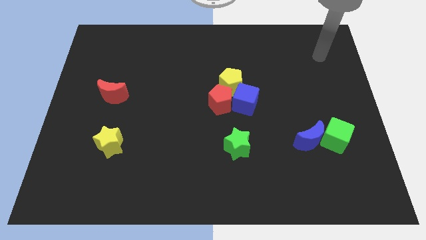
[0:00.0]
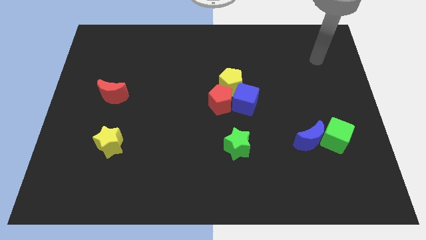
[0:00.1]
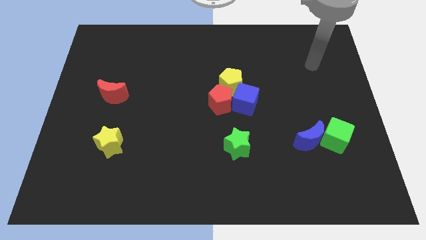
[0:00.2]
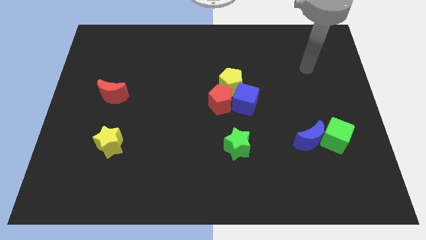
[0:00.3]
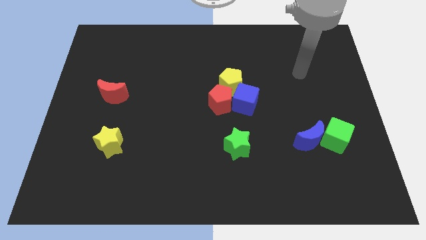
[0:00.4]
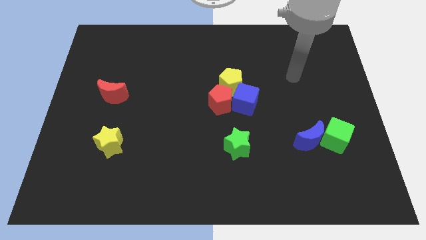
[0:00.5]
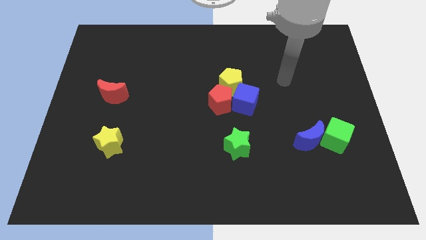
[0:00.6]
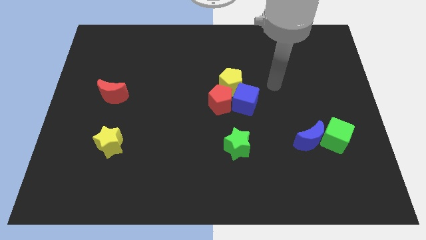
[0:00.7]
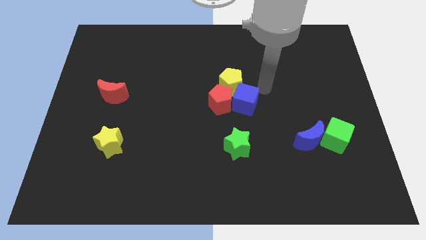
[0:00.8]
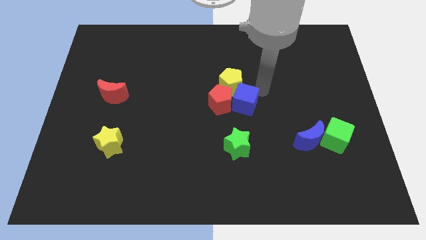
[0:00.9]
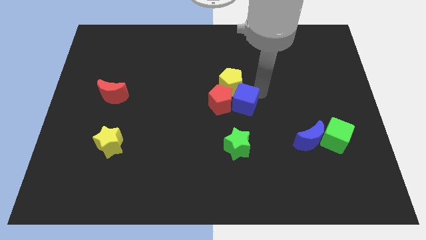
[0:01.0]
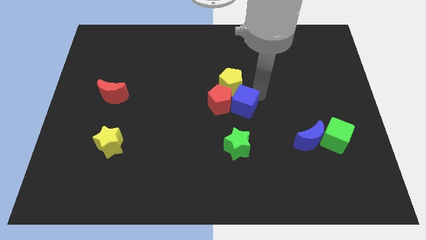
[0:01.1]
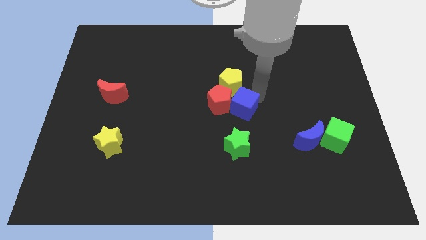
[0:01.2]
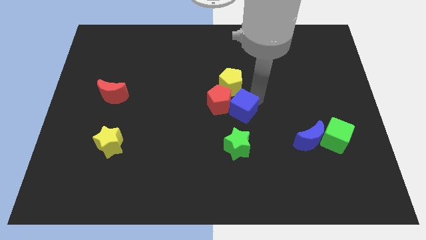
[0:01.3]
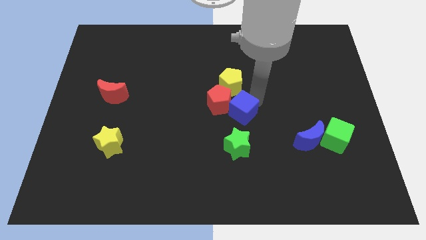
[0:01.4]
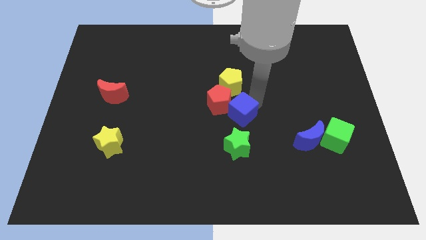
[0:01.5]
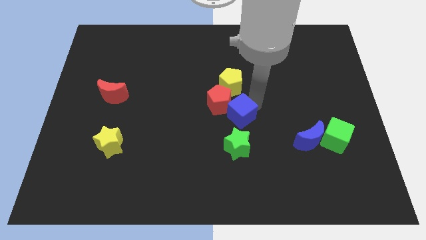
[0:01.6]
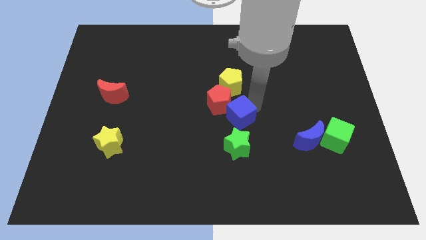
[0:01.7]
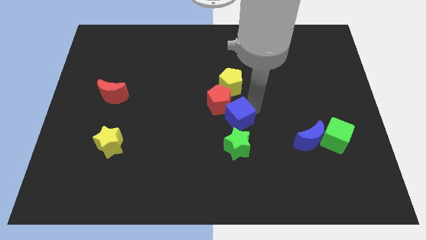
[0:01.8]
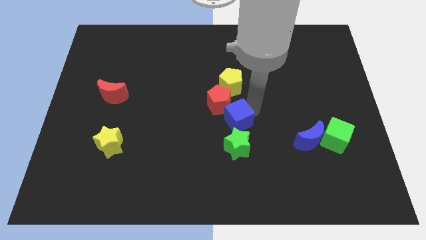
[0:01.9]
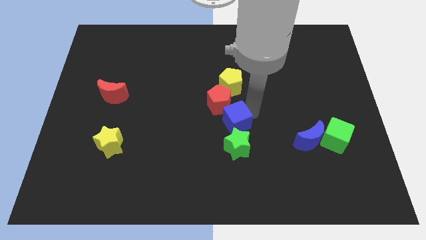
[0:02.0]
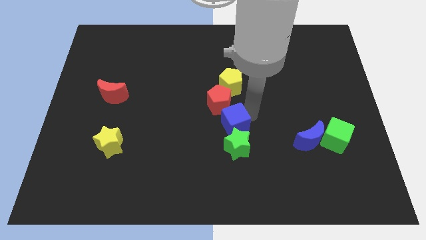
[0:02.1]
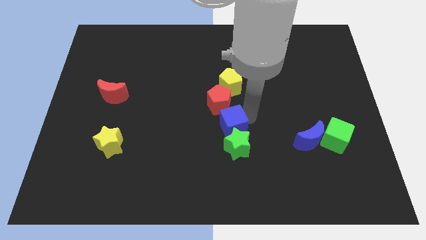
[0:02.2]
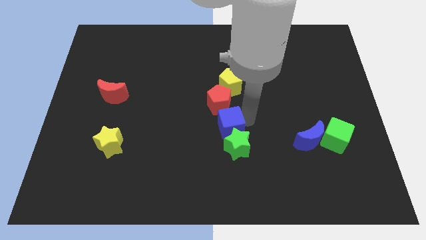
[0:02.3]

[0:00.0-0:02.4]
slightly move the blue cube downwards and left diagonally

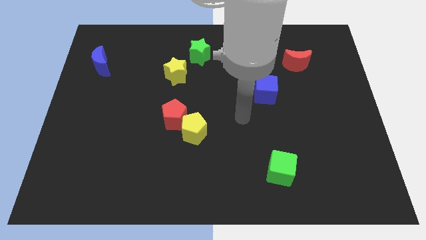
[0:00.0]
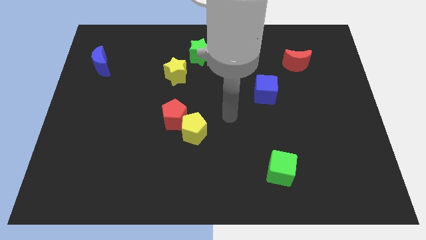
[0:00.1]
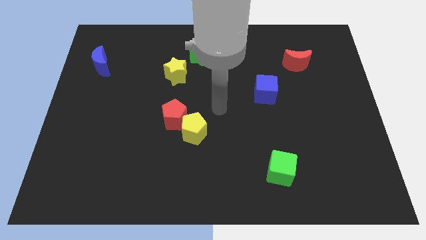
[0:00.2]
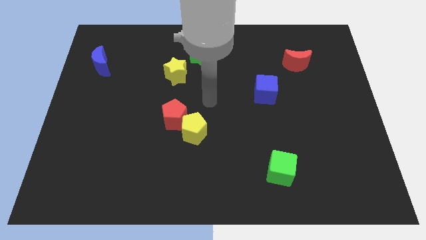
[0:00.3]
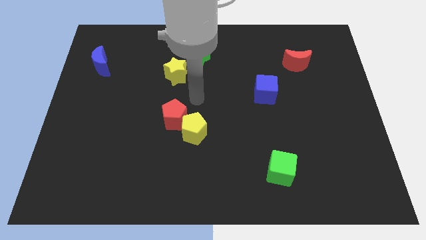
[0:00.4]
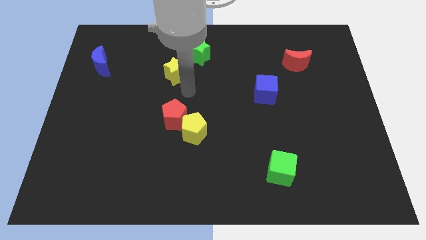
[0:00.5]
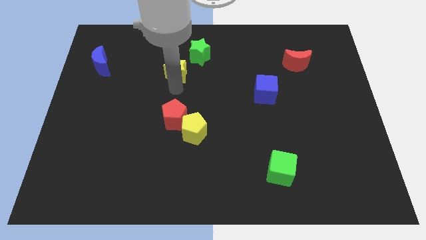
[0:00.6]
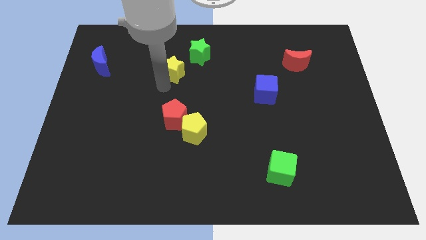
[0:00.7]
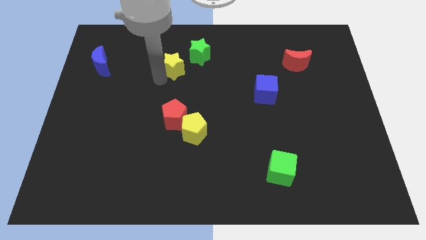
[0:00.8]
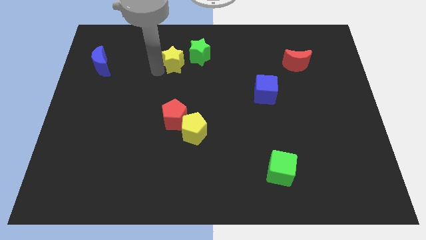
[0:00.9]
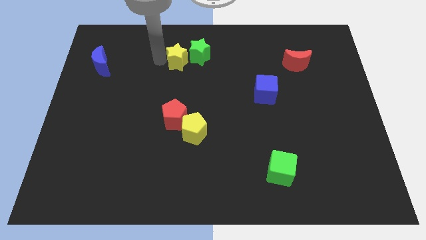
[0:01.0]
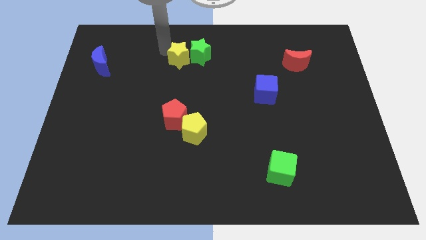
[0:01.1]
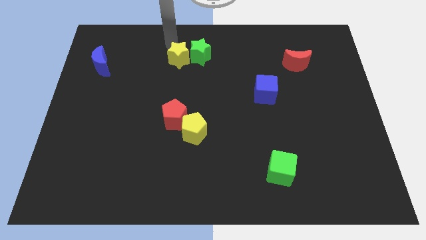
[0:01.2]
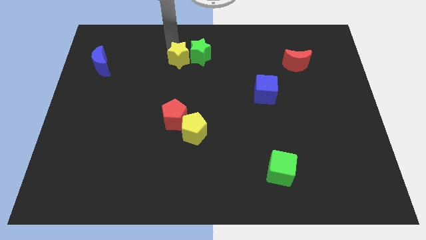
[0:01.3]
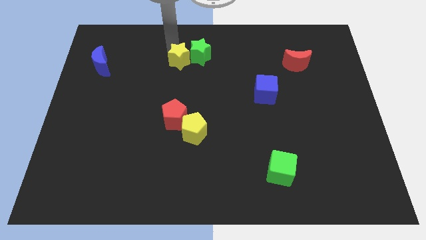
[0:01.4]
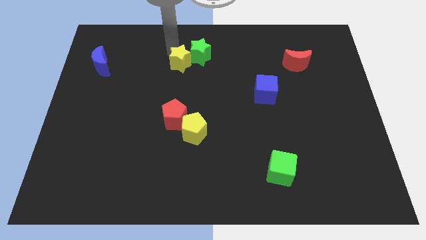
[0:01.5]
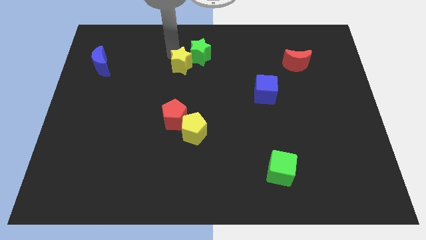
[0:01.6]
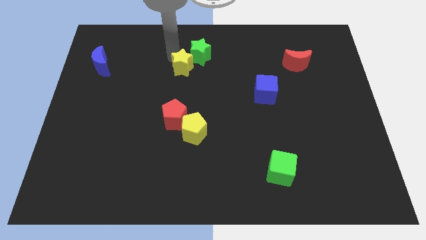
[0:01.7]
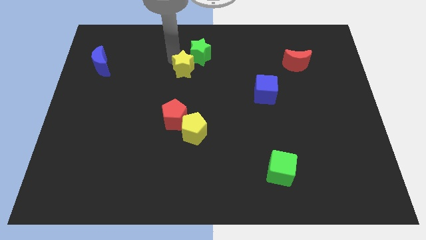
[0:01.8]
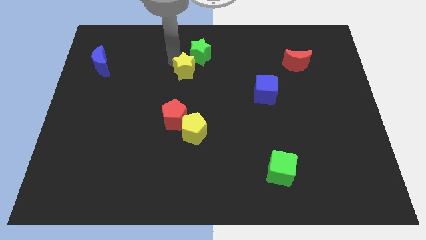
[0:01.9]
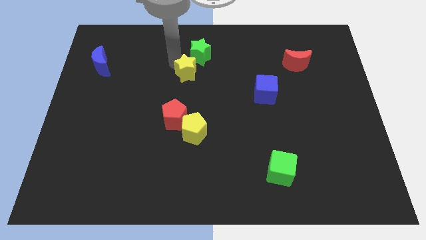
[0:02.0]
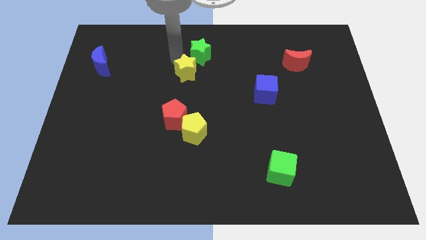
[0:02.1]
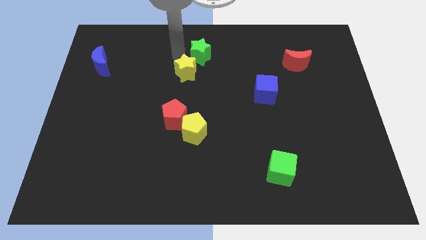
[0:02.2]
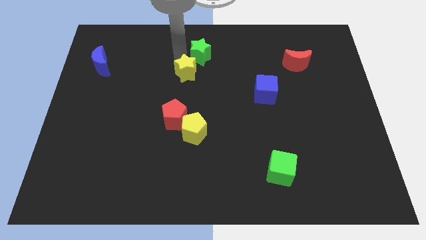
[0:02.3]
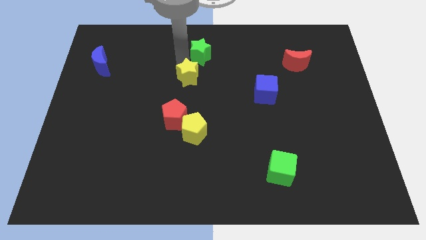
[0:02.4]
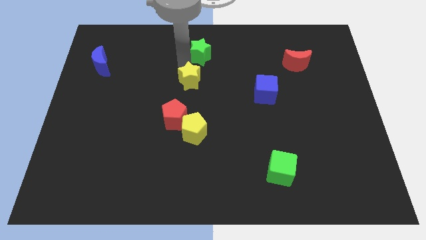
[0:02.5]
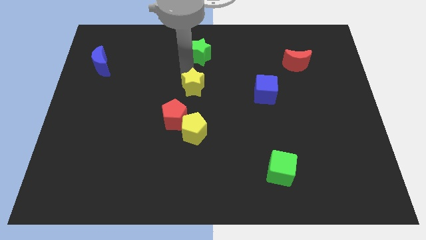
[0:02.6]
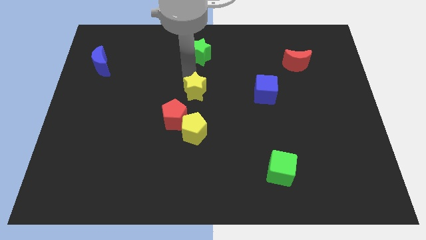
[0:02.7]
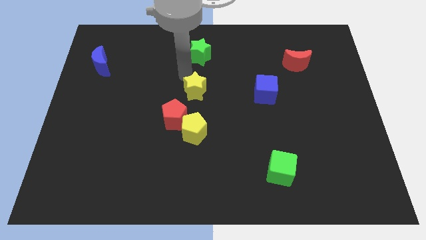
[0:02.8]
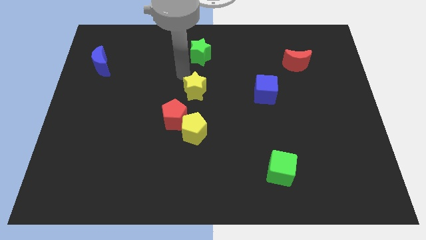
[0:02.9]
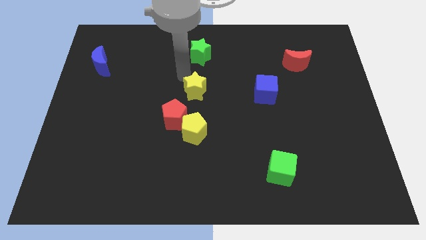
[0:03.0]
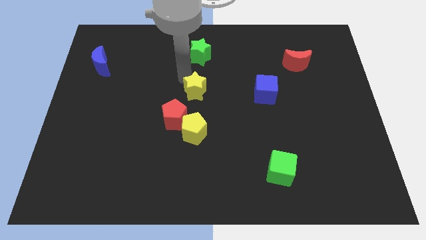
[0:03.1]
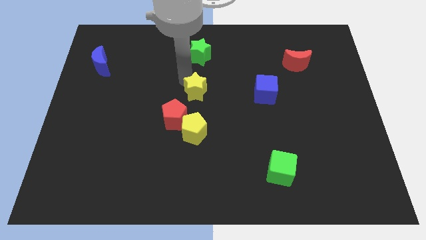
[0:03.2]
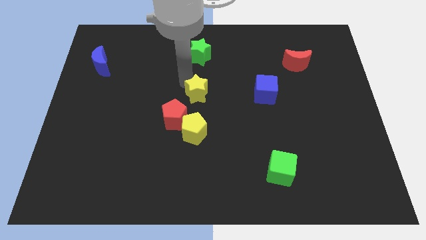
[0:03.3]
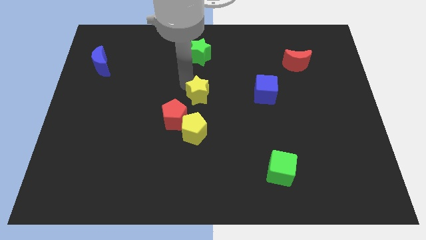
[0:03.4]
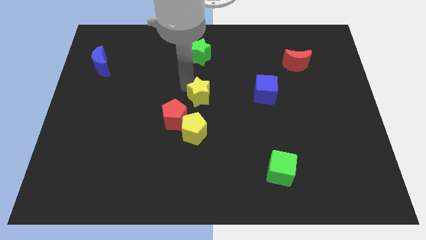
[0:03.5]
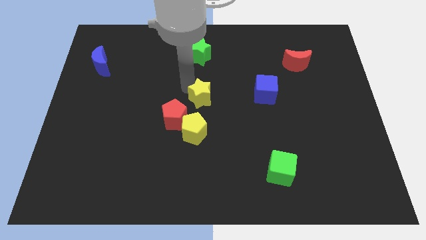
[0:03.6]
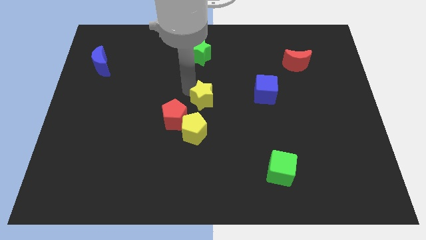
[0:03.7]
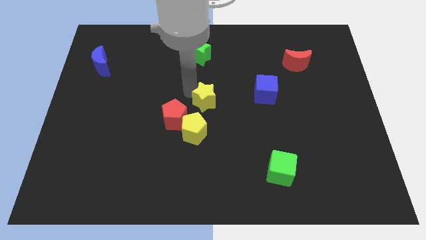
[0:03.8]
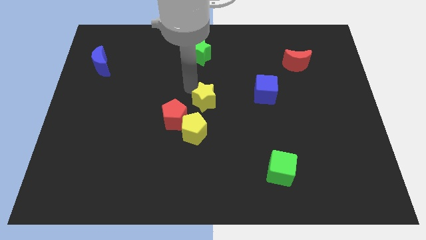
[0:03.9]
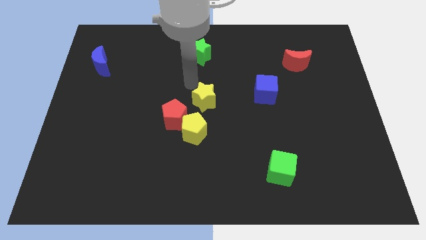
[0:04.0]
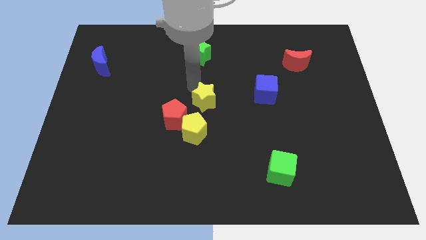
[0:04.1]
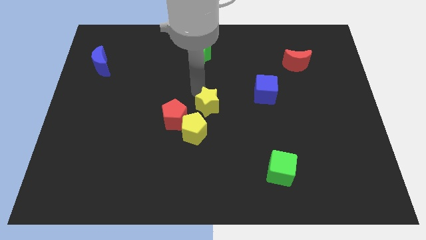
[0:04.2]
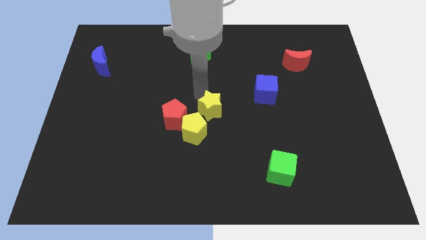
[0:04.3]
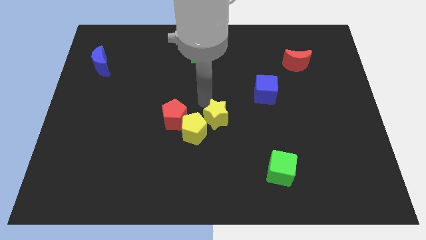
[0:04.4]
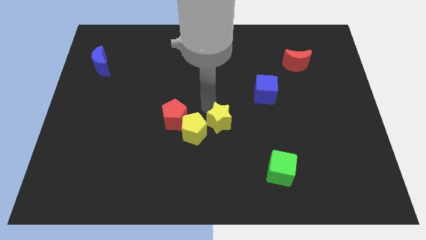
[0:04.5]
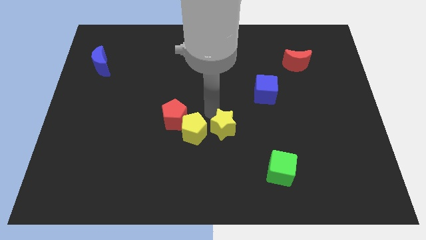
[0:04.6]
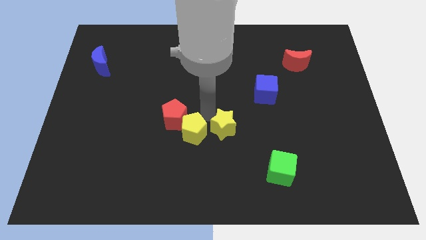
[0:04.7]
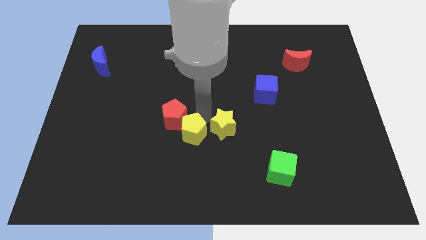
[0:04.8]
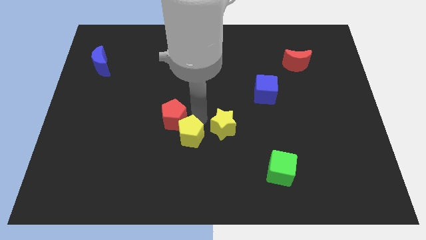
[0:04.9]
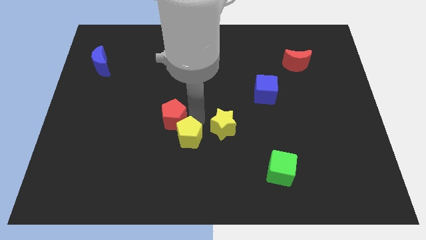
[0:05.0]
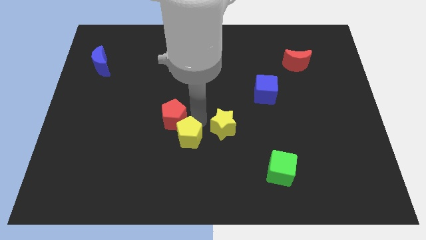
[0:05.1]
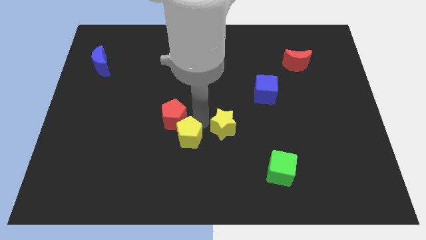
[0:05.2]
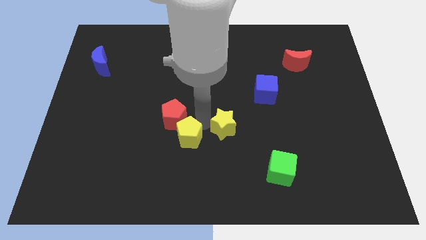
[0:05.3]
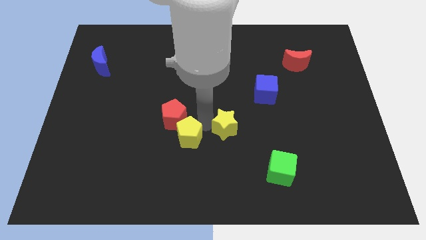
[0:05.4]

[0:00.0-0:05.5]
push the yellow star down and right diagonally

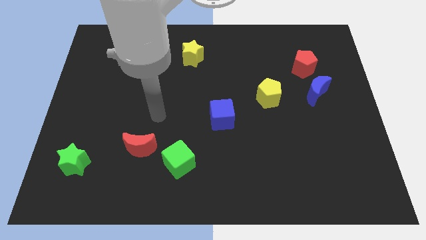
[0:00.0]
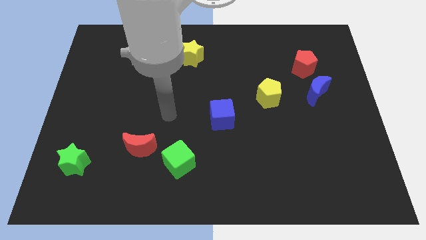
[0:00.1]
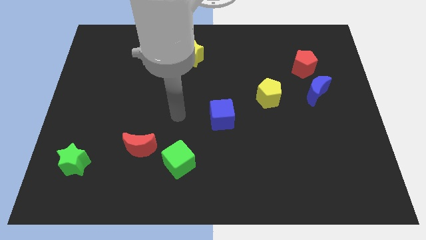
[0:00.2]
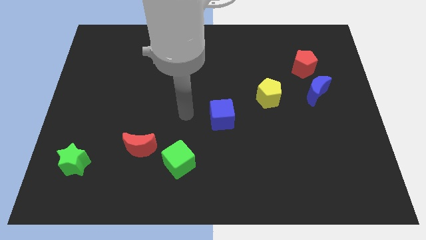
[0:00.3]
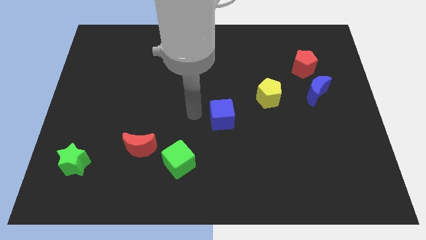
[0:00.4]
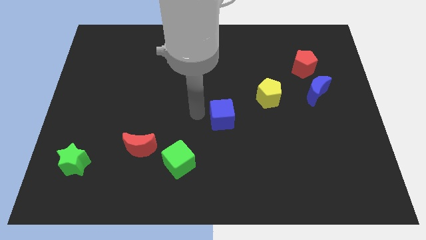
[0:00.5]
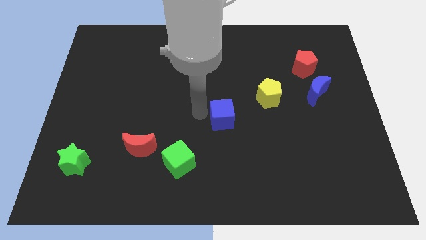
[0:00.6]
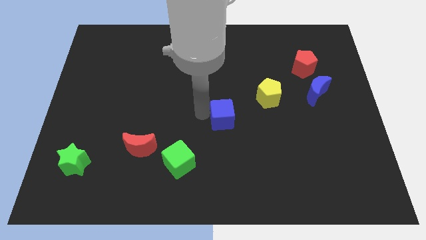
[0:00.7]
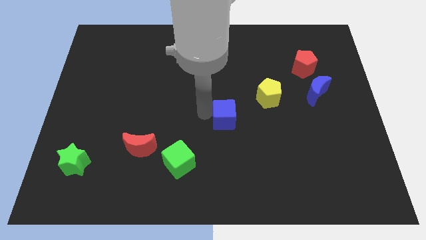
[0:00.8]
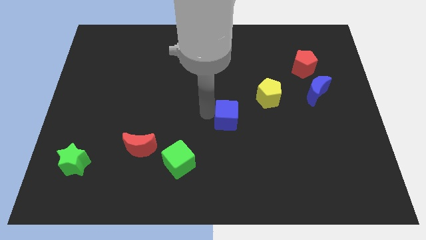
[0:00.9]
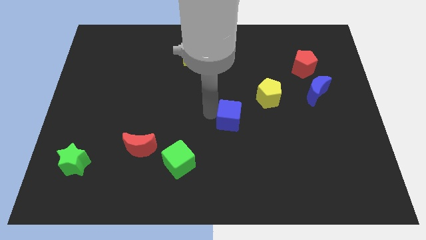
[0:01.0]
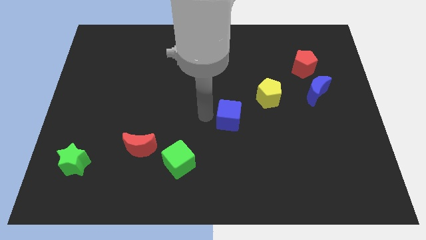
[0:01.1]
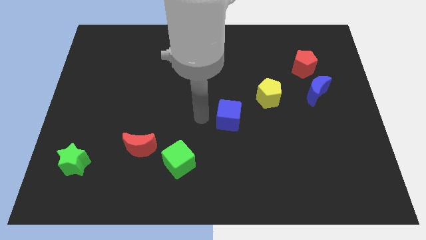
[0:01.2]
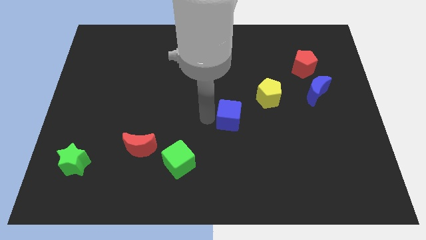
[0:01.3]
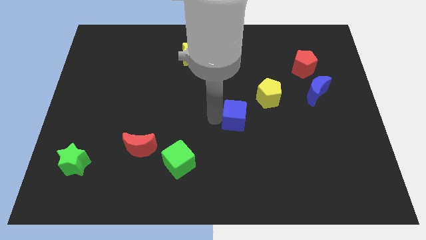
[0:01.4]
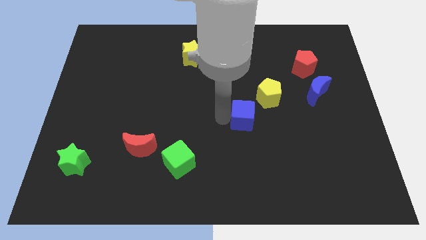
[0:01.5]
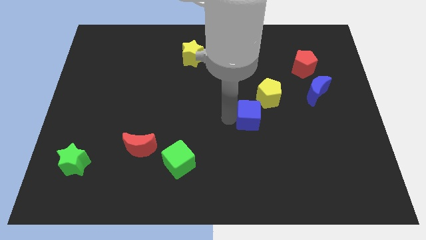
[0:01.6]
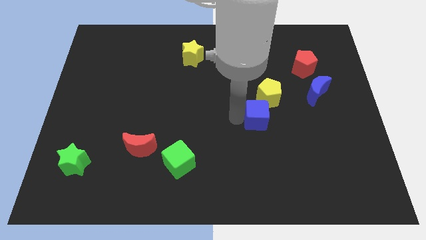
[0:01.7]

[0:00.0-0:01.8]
move the blue cube somewhat to the right
